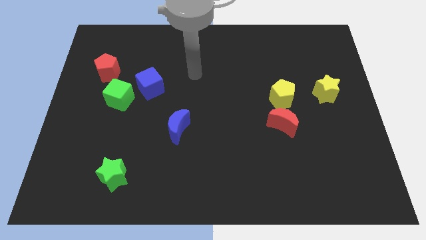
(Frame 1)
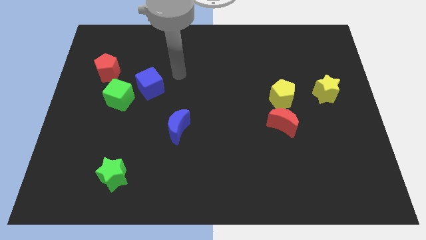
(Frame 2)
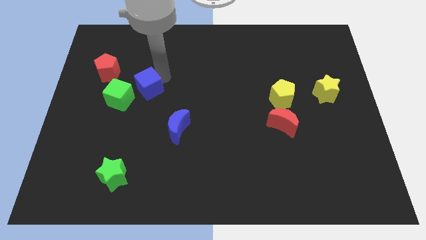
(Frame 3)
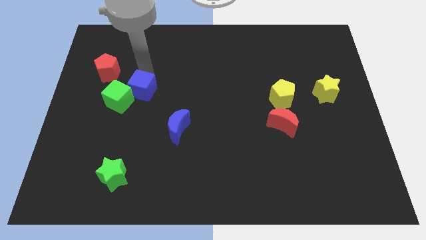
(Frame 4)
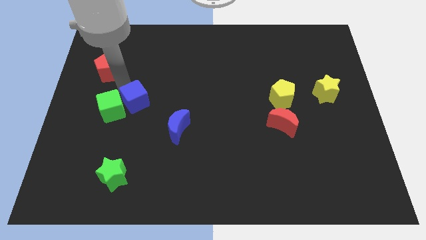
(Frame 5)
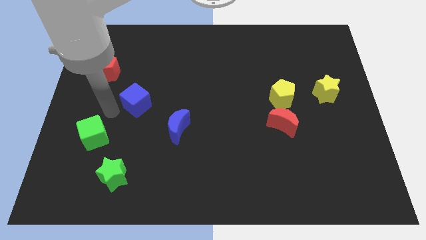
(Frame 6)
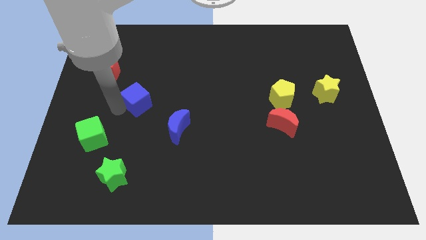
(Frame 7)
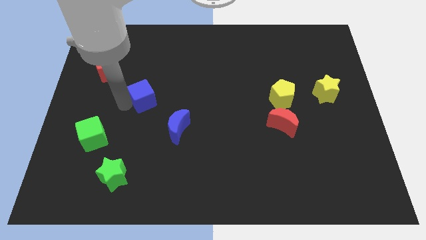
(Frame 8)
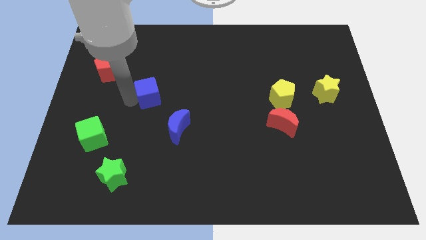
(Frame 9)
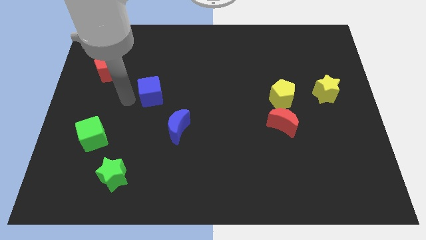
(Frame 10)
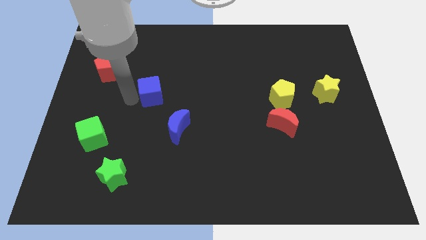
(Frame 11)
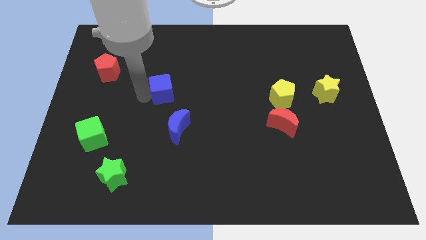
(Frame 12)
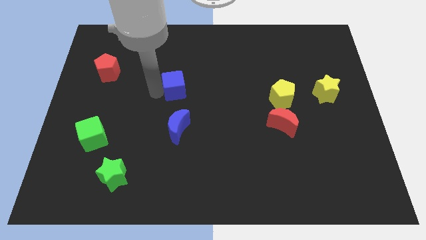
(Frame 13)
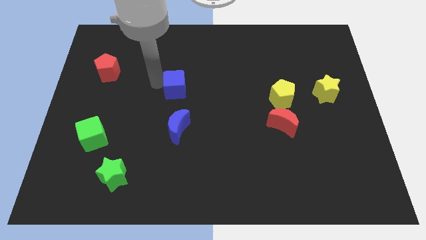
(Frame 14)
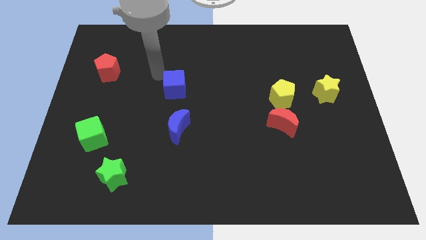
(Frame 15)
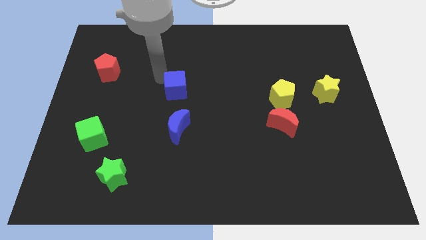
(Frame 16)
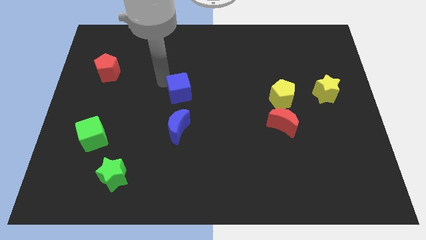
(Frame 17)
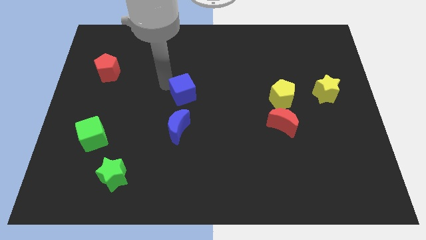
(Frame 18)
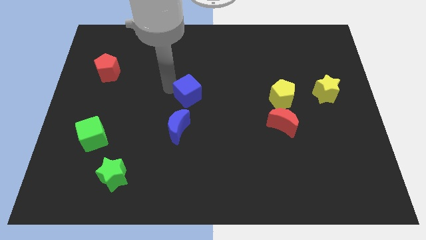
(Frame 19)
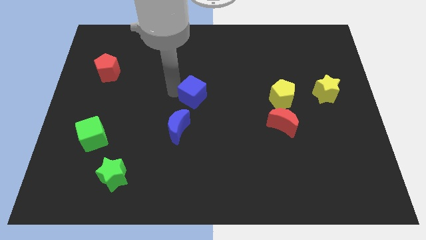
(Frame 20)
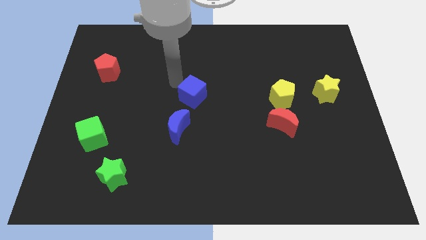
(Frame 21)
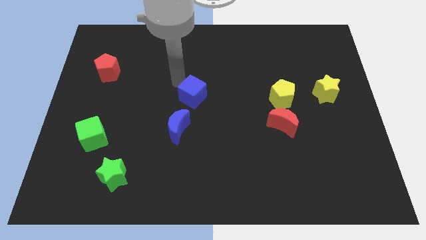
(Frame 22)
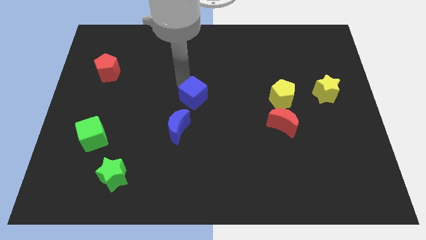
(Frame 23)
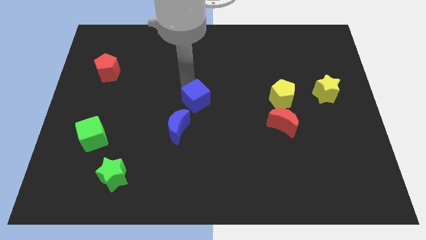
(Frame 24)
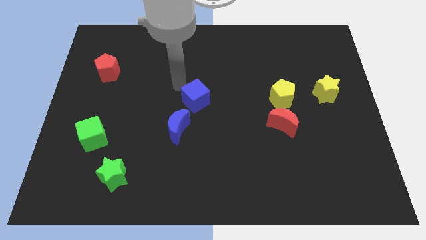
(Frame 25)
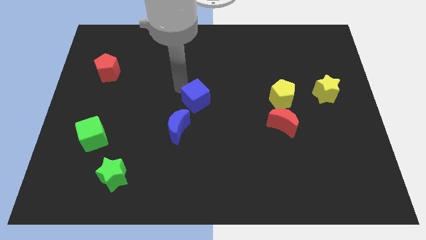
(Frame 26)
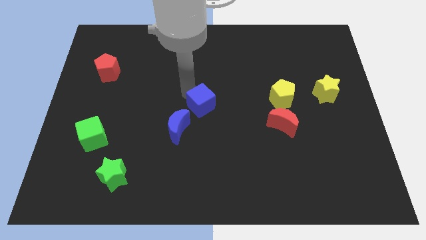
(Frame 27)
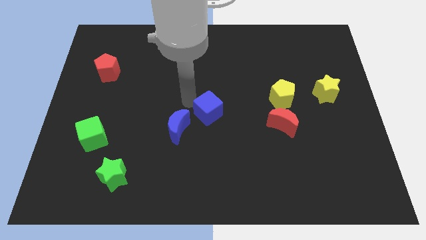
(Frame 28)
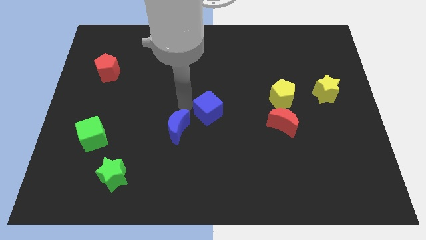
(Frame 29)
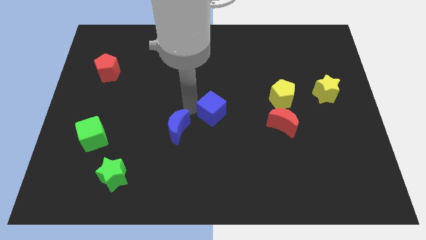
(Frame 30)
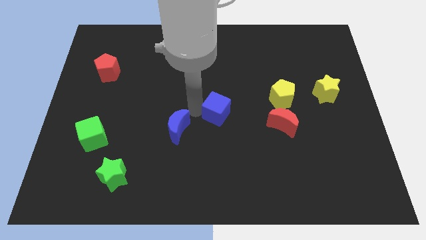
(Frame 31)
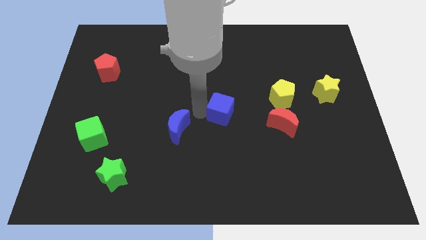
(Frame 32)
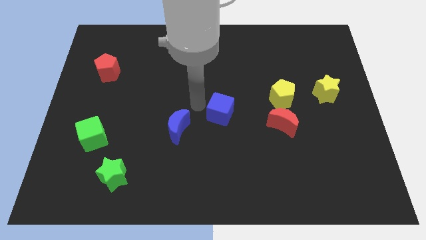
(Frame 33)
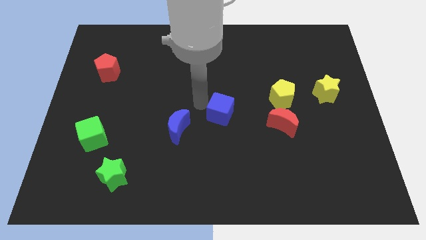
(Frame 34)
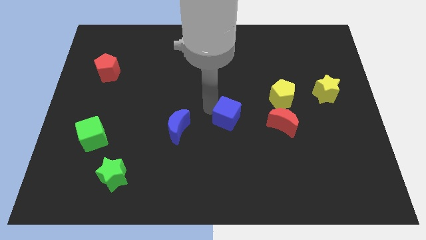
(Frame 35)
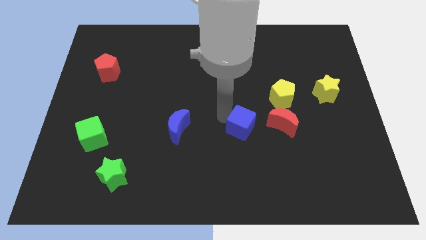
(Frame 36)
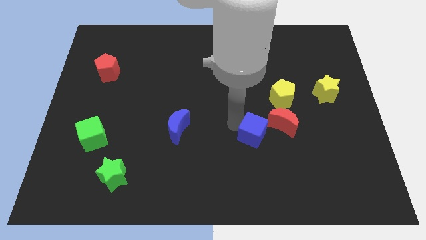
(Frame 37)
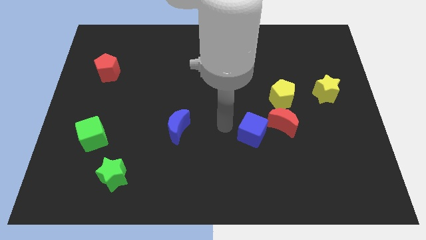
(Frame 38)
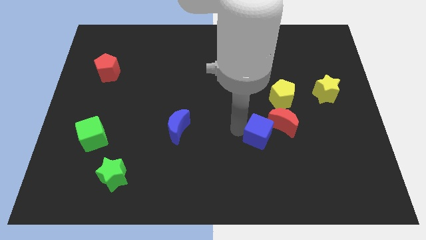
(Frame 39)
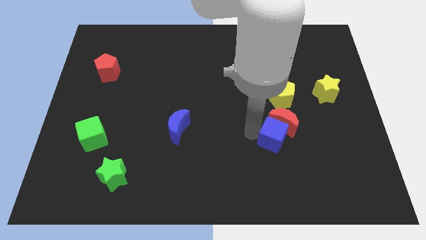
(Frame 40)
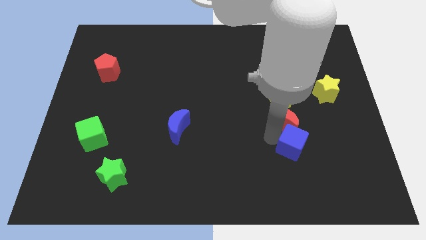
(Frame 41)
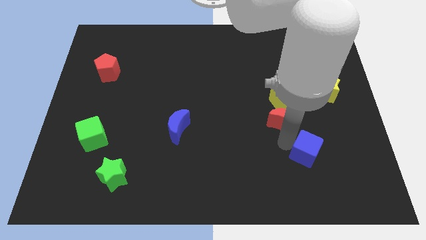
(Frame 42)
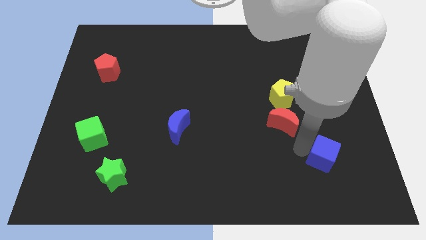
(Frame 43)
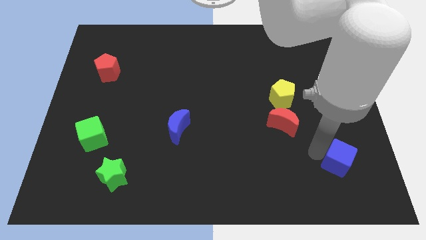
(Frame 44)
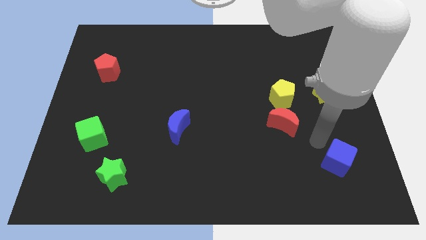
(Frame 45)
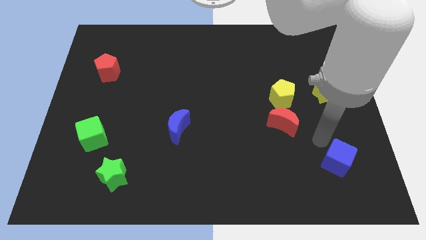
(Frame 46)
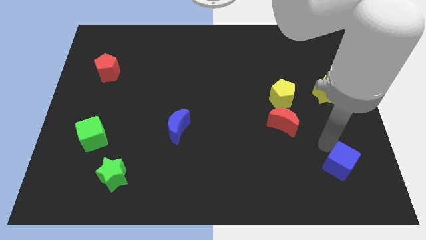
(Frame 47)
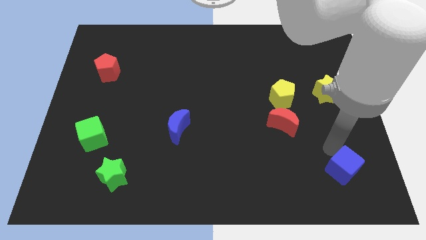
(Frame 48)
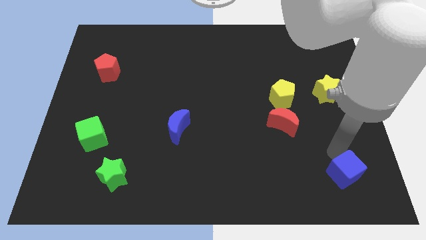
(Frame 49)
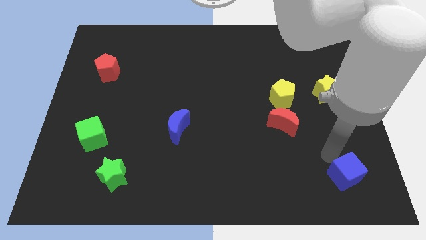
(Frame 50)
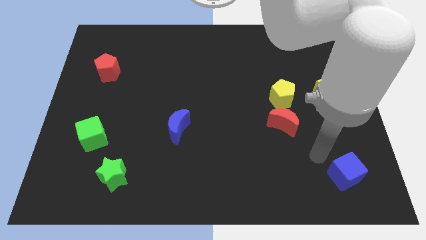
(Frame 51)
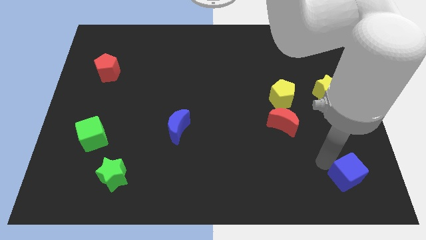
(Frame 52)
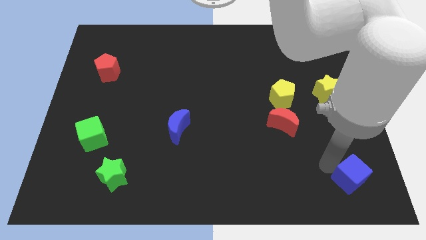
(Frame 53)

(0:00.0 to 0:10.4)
push the blue cube to the lower right corner

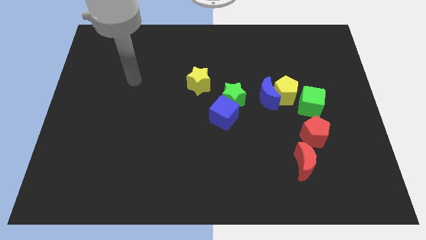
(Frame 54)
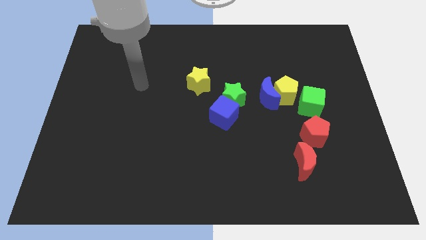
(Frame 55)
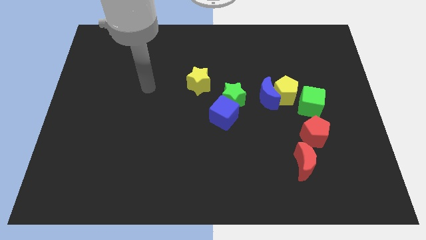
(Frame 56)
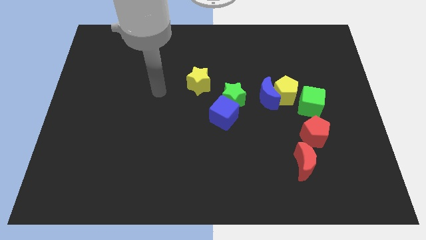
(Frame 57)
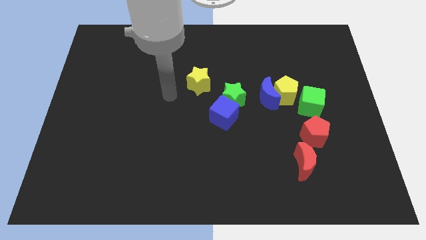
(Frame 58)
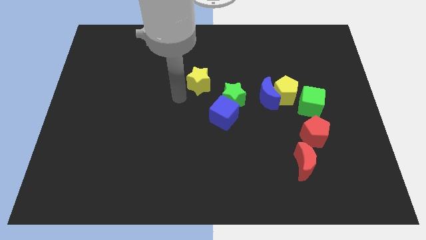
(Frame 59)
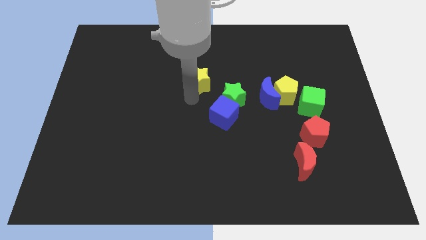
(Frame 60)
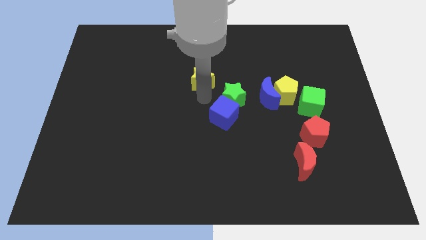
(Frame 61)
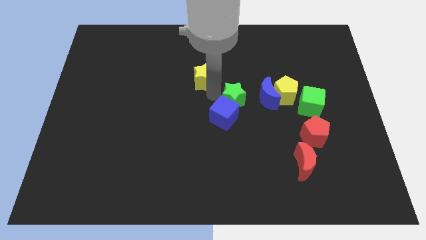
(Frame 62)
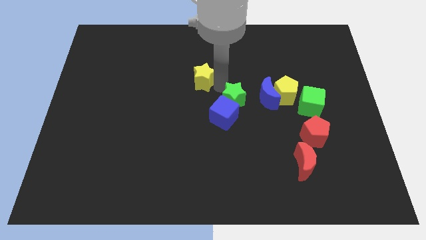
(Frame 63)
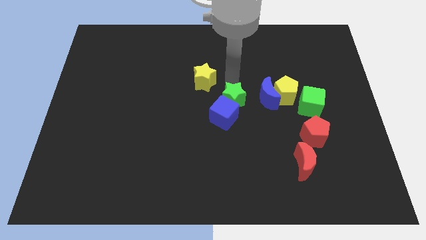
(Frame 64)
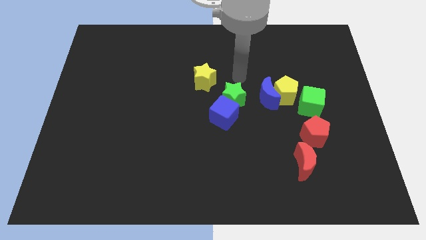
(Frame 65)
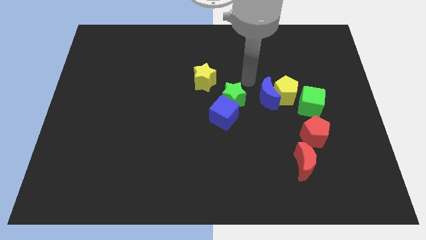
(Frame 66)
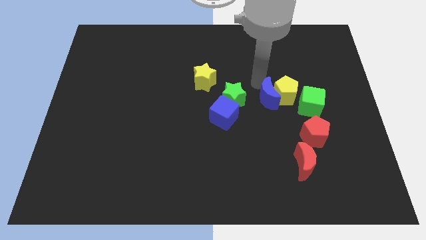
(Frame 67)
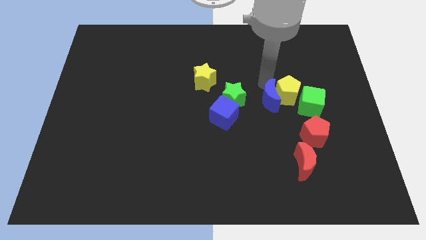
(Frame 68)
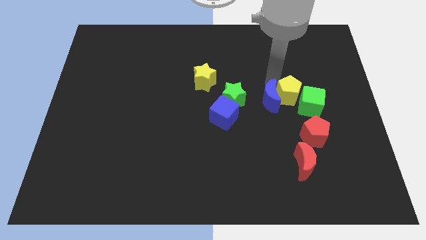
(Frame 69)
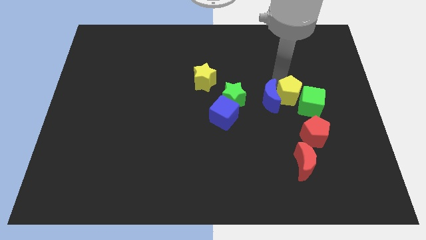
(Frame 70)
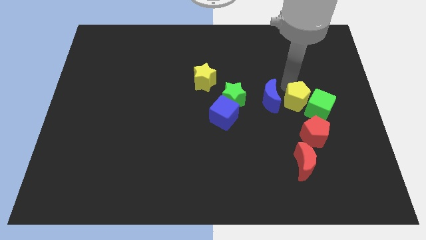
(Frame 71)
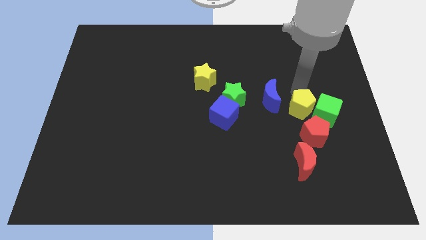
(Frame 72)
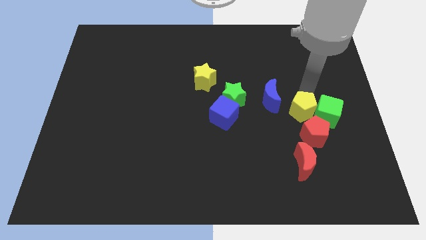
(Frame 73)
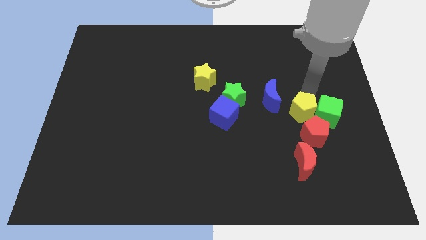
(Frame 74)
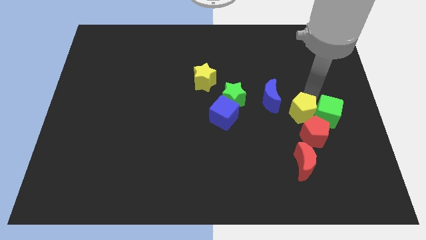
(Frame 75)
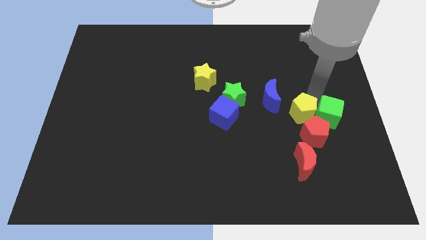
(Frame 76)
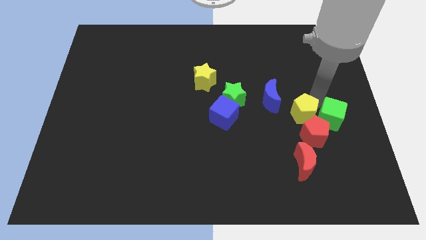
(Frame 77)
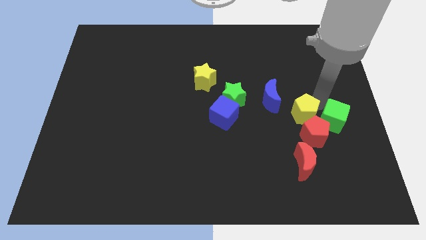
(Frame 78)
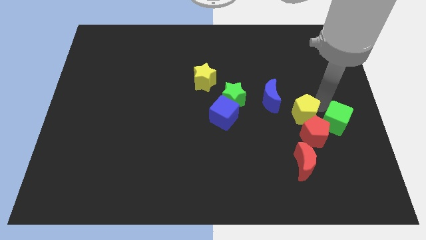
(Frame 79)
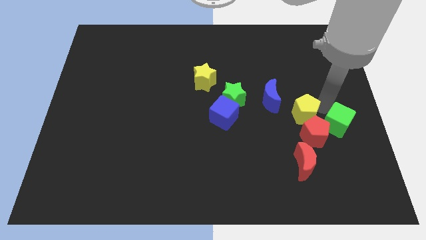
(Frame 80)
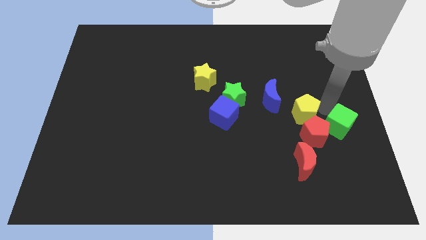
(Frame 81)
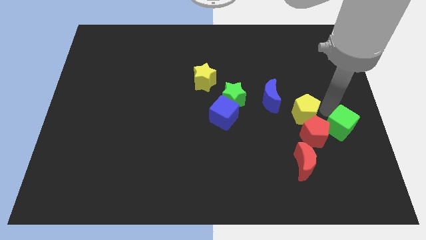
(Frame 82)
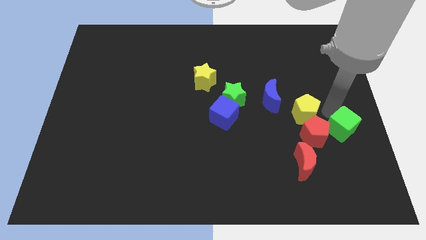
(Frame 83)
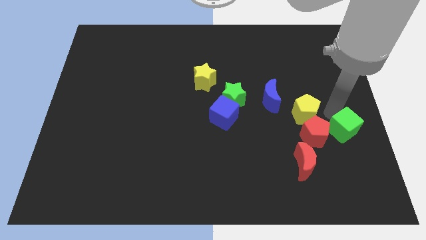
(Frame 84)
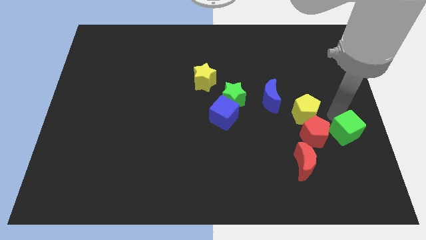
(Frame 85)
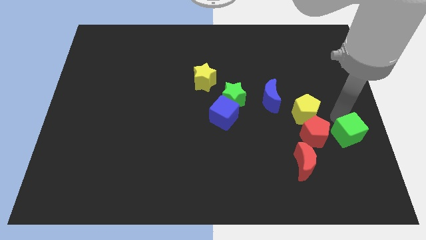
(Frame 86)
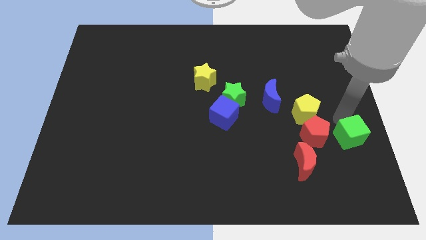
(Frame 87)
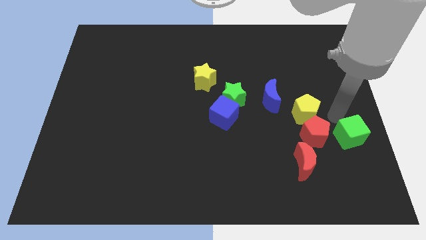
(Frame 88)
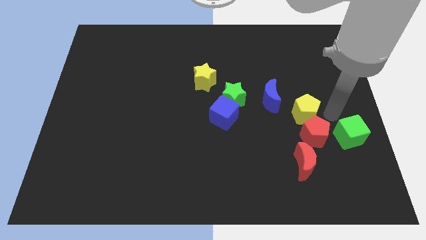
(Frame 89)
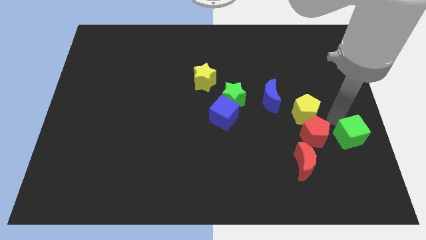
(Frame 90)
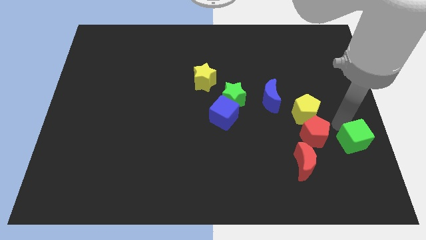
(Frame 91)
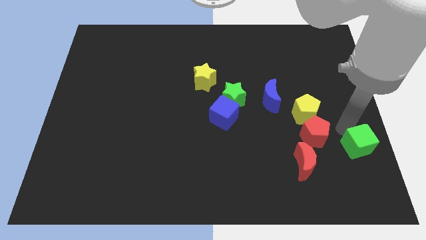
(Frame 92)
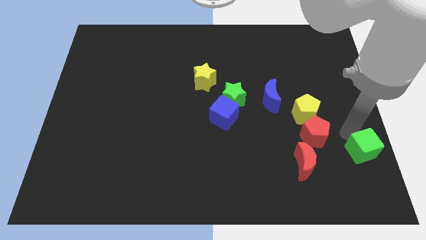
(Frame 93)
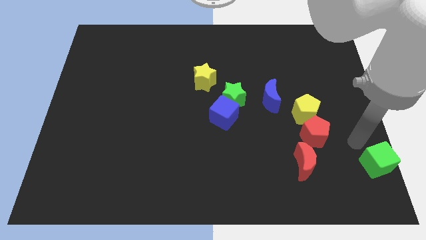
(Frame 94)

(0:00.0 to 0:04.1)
move the green cube to the bottom right of the board
